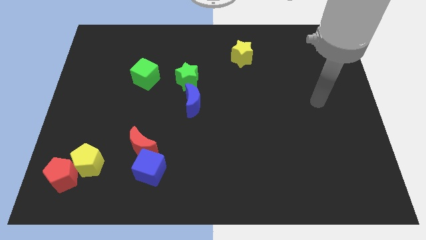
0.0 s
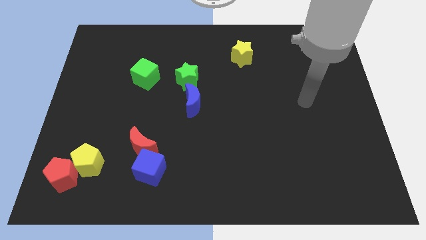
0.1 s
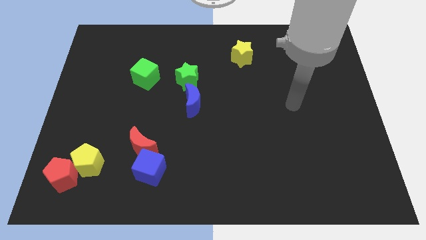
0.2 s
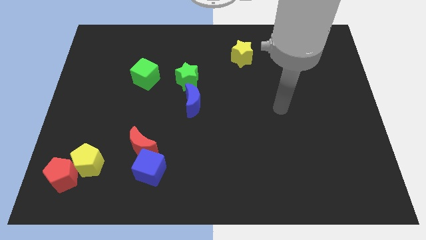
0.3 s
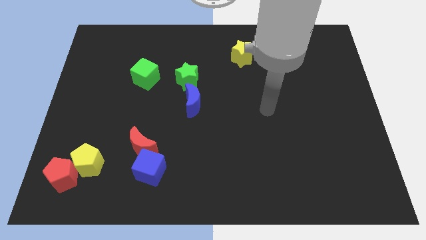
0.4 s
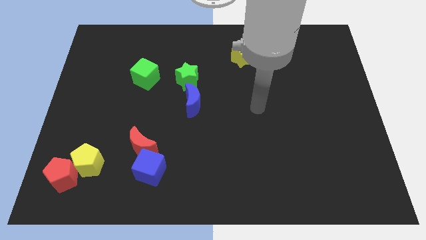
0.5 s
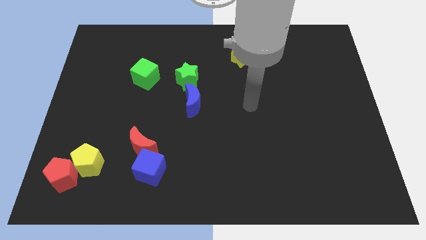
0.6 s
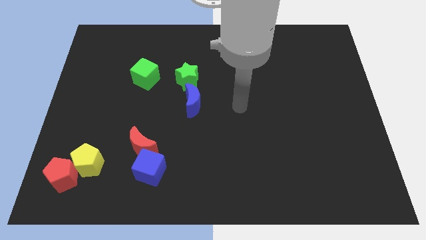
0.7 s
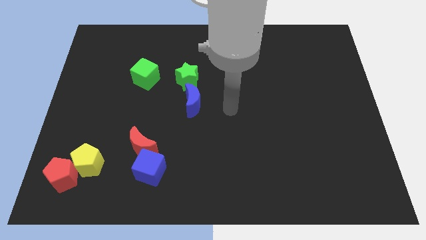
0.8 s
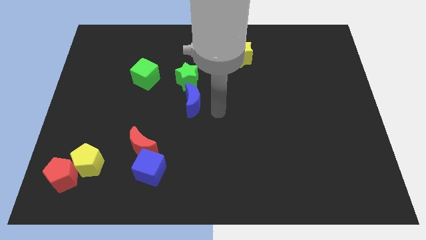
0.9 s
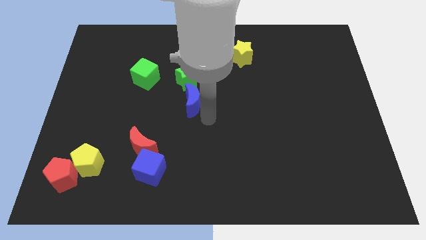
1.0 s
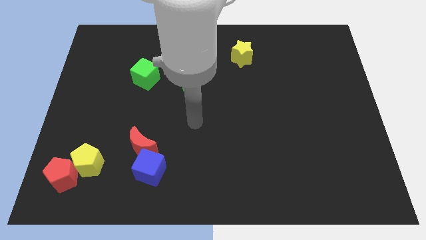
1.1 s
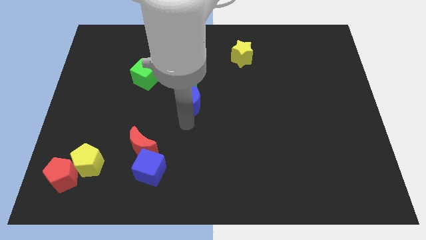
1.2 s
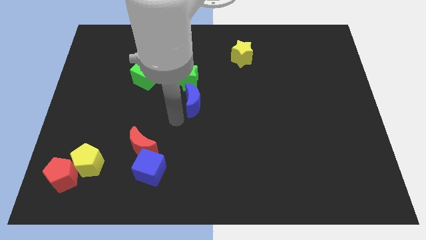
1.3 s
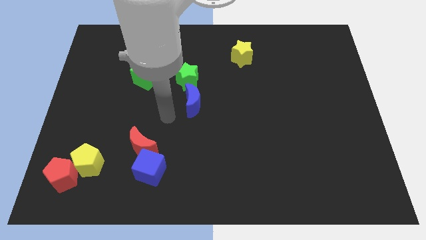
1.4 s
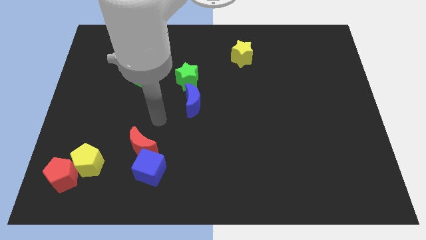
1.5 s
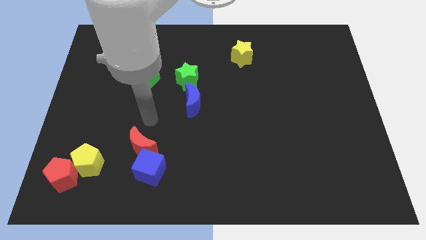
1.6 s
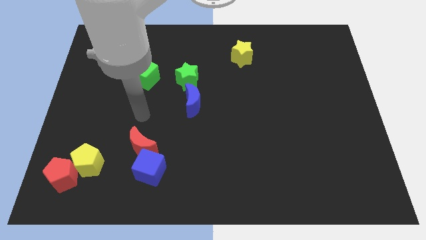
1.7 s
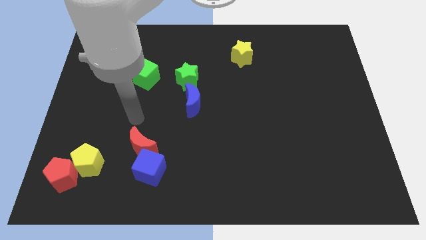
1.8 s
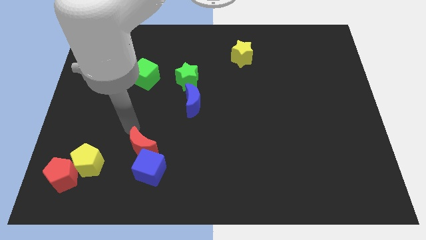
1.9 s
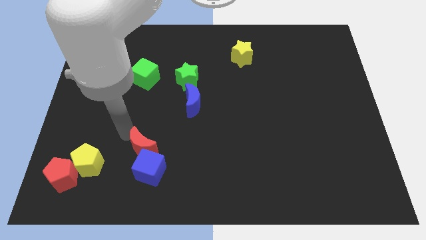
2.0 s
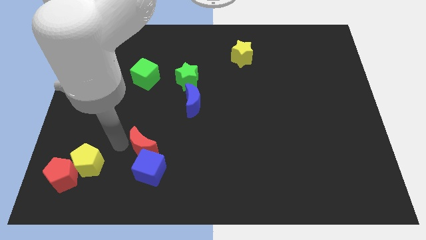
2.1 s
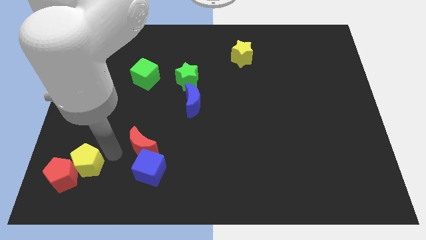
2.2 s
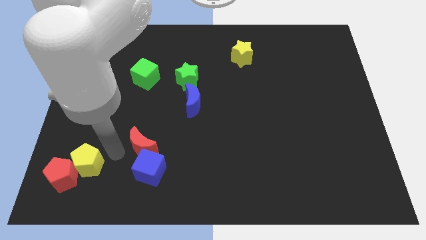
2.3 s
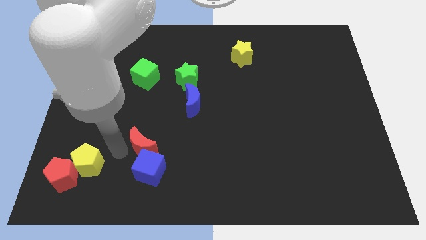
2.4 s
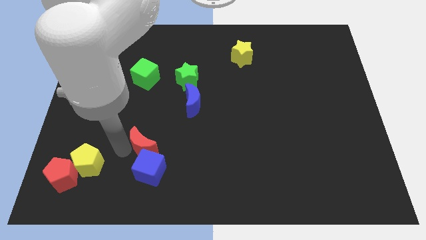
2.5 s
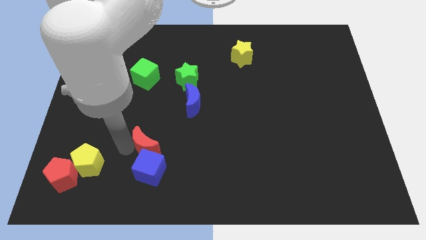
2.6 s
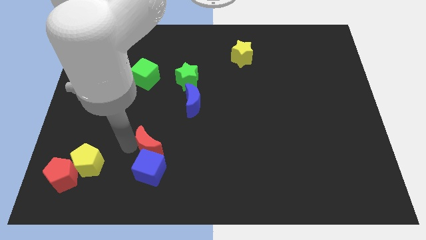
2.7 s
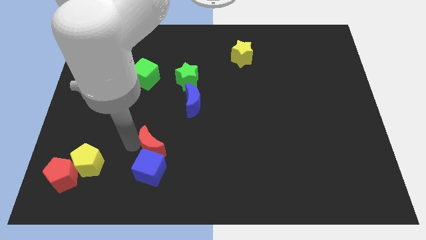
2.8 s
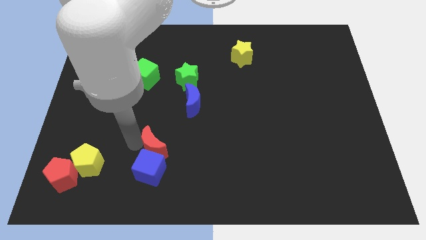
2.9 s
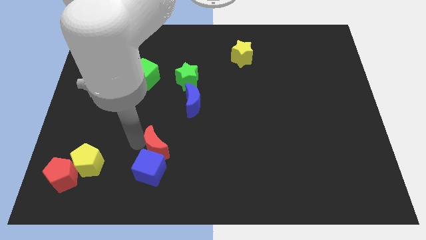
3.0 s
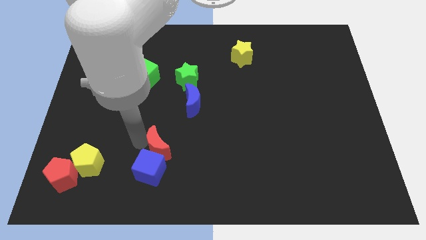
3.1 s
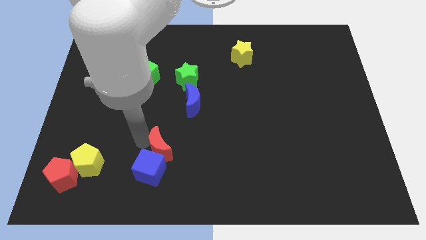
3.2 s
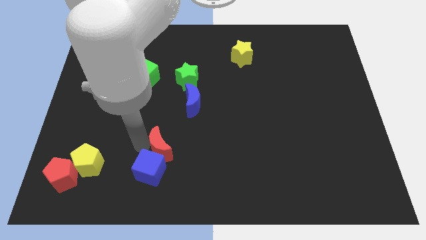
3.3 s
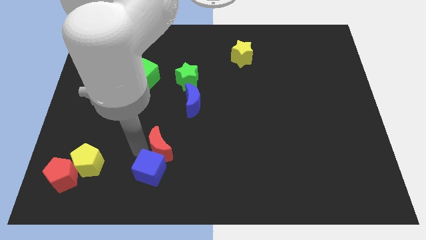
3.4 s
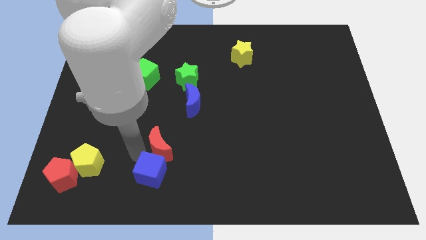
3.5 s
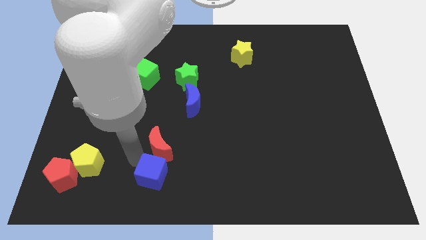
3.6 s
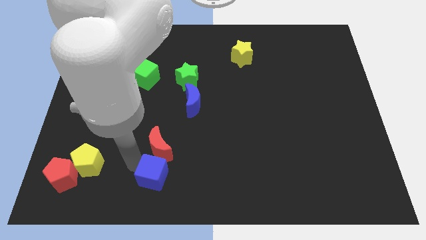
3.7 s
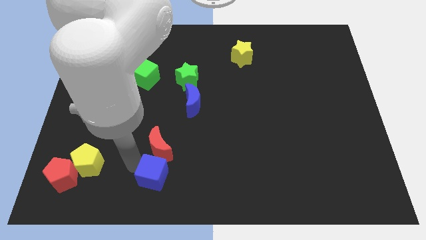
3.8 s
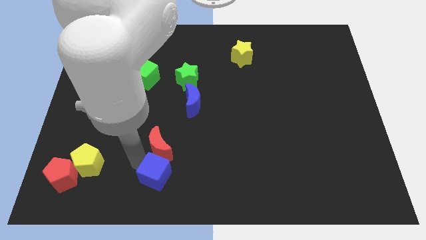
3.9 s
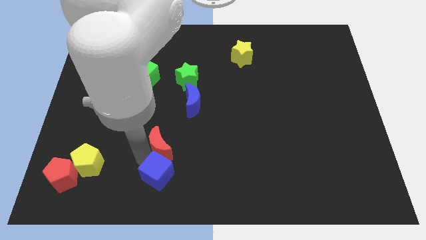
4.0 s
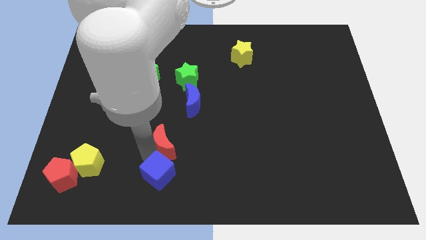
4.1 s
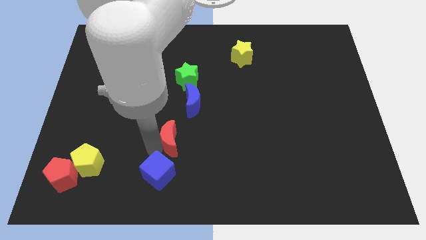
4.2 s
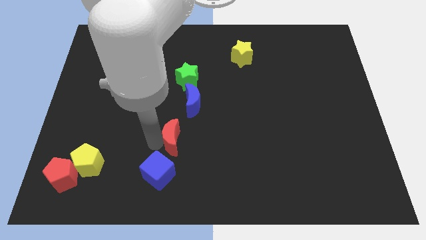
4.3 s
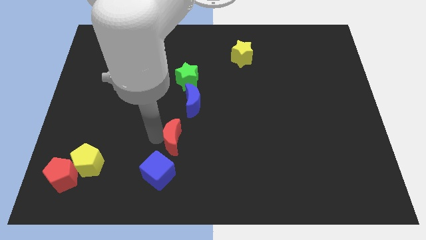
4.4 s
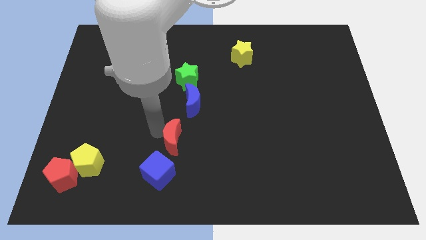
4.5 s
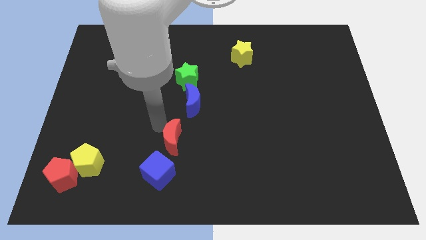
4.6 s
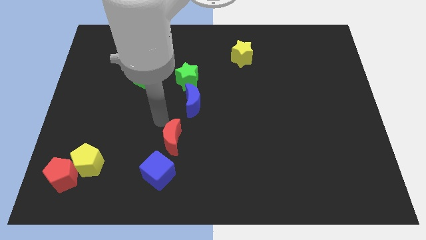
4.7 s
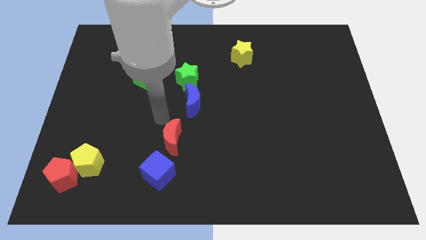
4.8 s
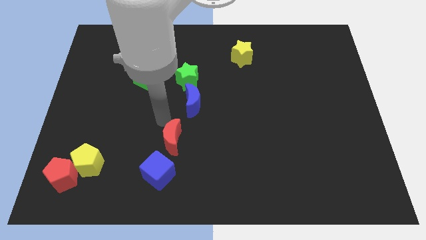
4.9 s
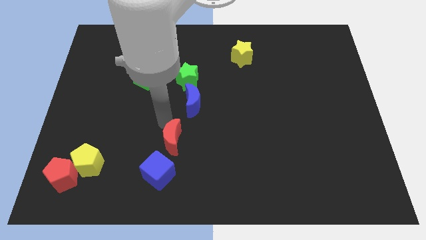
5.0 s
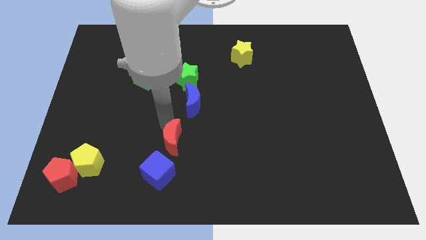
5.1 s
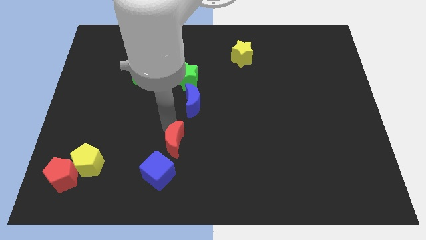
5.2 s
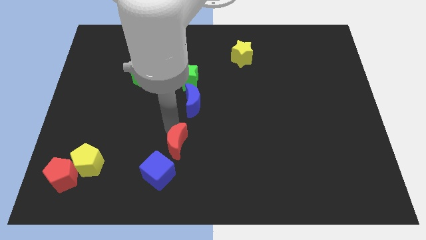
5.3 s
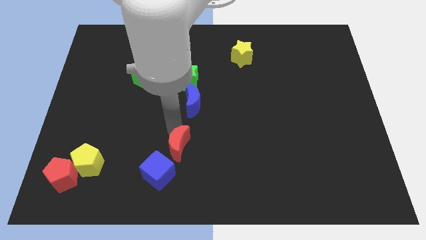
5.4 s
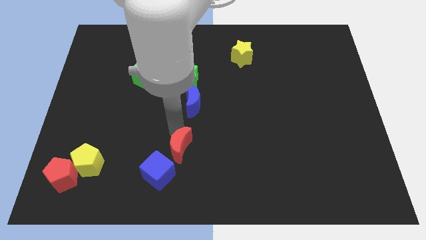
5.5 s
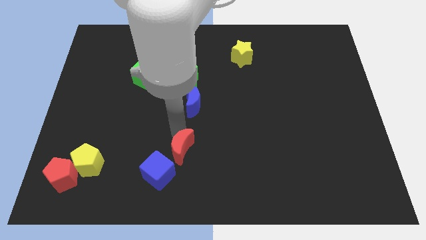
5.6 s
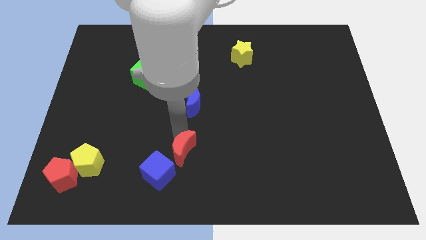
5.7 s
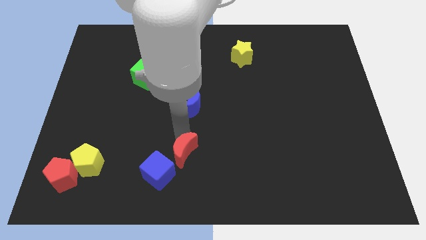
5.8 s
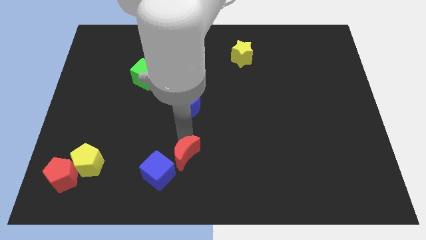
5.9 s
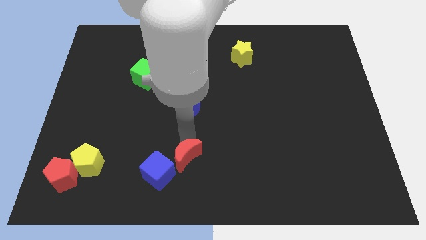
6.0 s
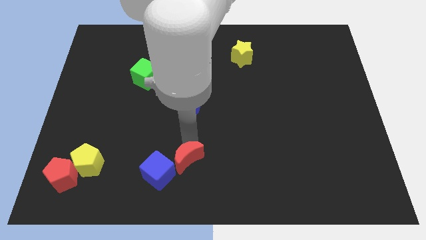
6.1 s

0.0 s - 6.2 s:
slide the red moon to the bottom
